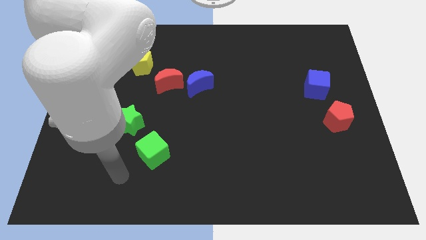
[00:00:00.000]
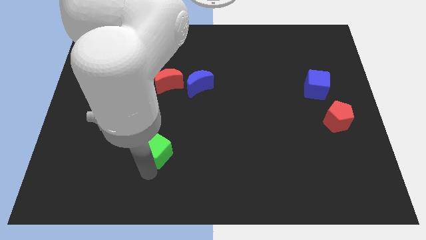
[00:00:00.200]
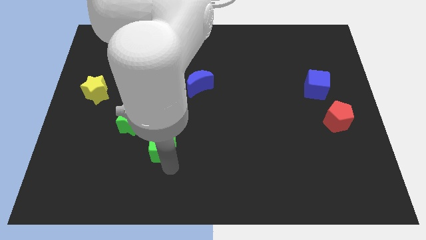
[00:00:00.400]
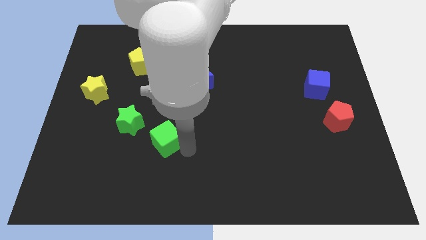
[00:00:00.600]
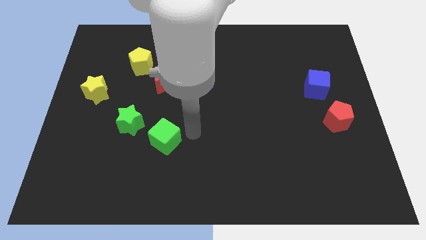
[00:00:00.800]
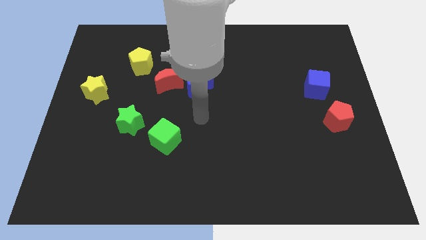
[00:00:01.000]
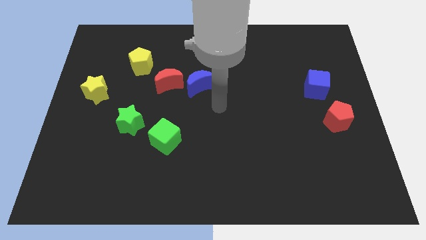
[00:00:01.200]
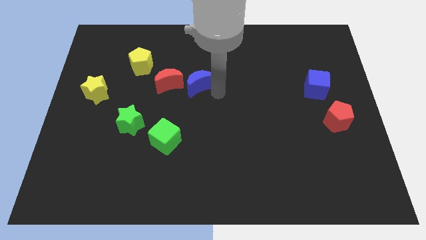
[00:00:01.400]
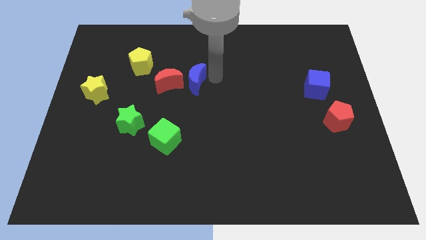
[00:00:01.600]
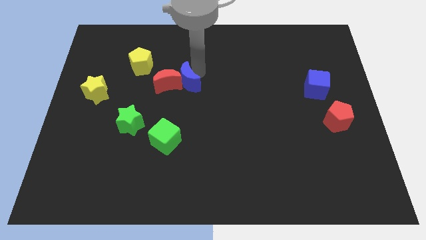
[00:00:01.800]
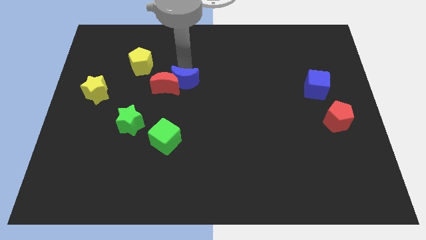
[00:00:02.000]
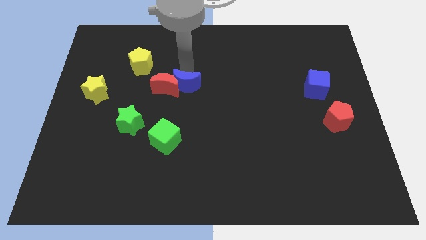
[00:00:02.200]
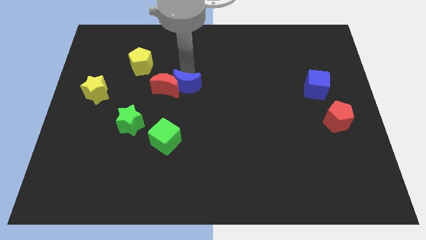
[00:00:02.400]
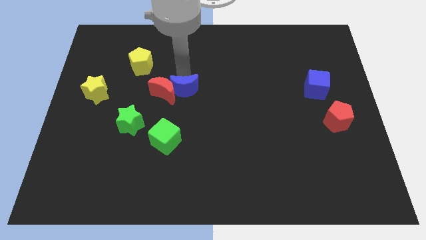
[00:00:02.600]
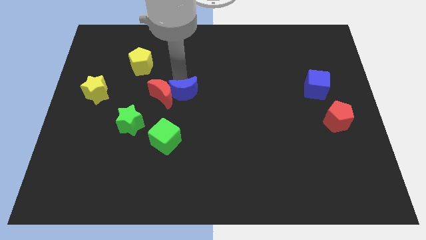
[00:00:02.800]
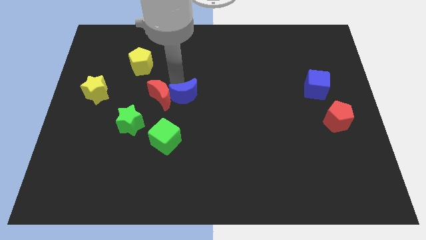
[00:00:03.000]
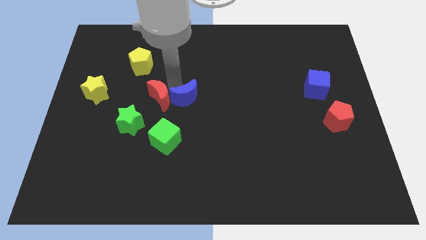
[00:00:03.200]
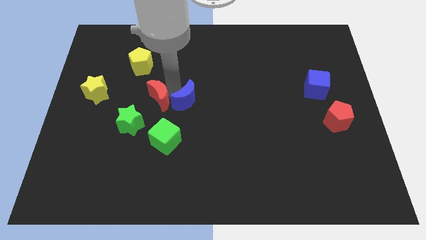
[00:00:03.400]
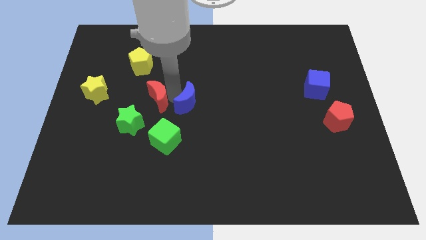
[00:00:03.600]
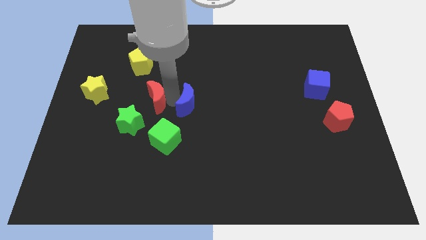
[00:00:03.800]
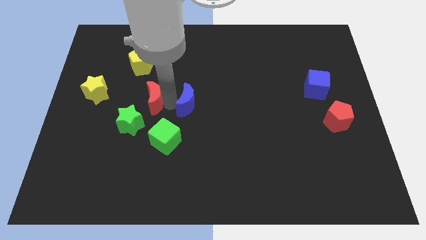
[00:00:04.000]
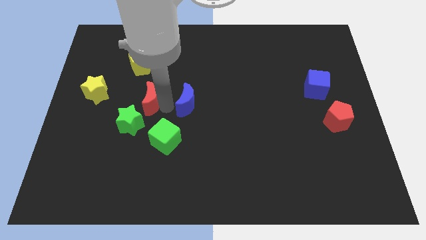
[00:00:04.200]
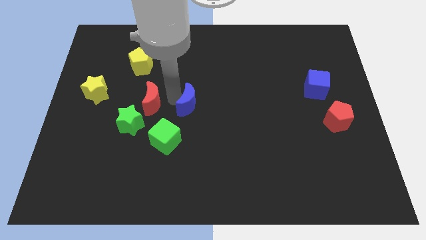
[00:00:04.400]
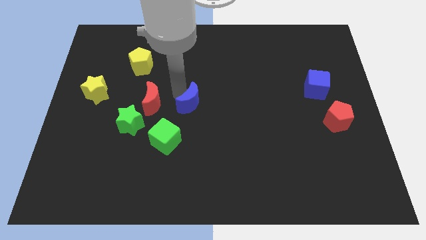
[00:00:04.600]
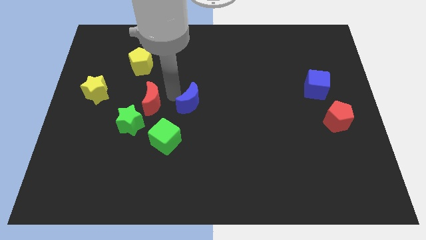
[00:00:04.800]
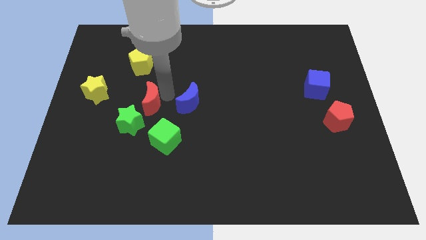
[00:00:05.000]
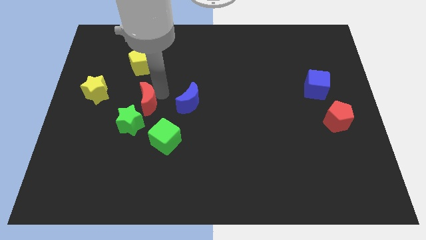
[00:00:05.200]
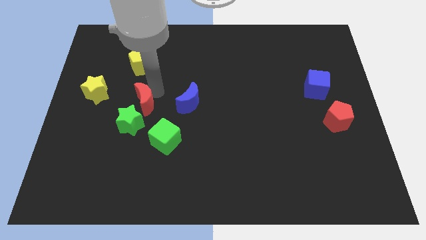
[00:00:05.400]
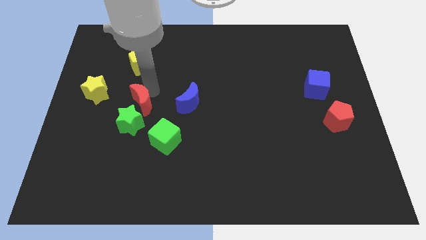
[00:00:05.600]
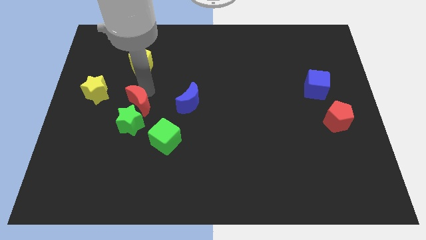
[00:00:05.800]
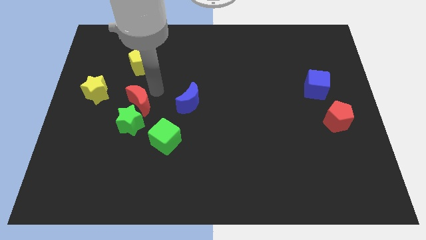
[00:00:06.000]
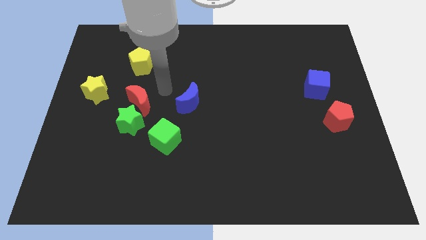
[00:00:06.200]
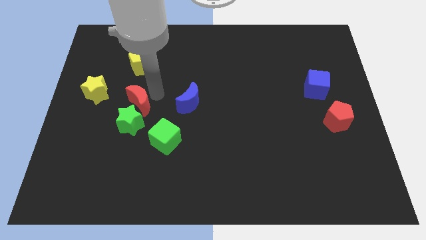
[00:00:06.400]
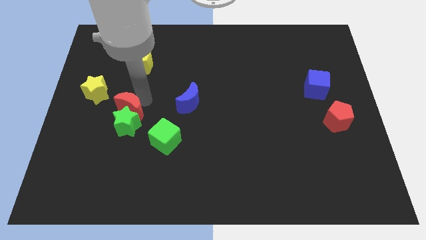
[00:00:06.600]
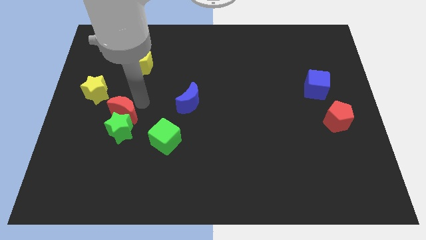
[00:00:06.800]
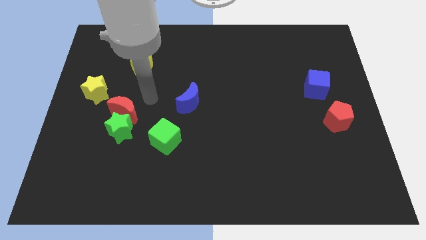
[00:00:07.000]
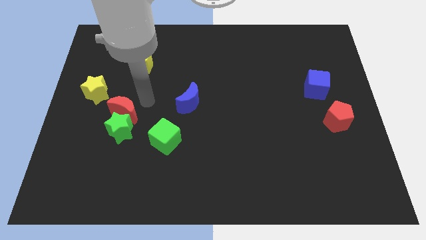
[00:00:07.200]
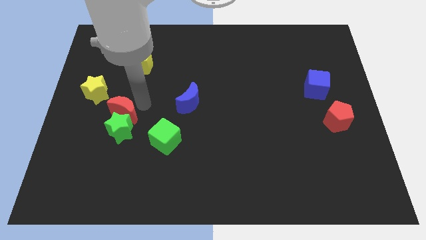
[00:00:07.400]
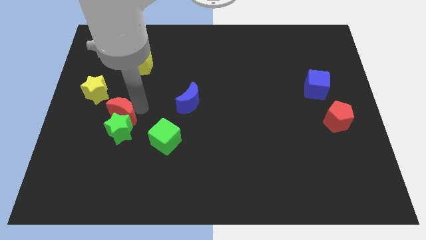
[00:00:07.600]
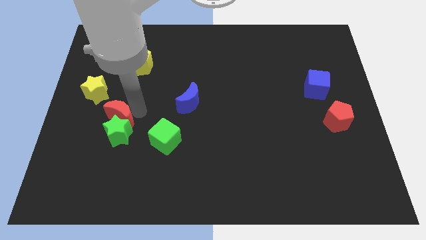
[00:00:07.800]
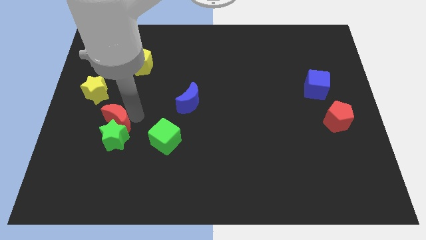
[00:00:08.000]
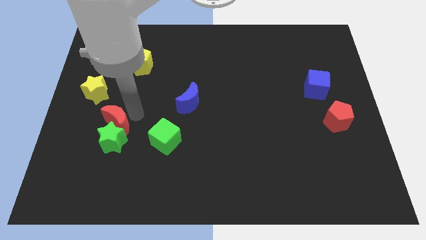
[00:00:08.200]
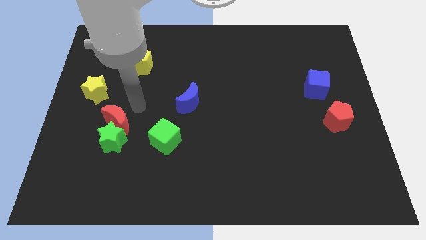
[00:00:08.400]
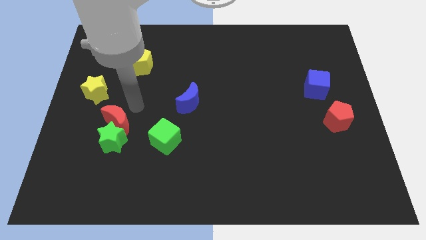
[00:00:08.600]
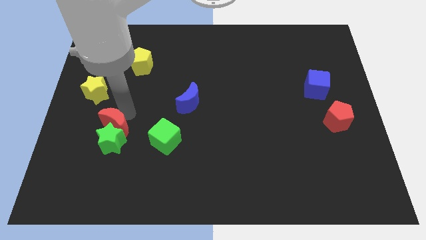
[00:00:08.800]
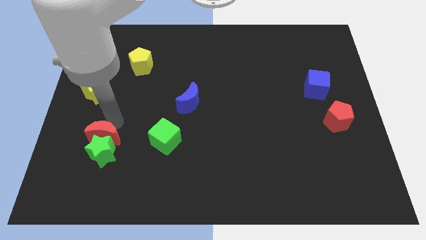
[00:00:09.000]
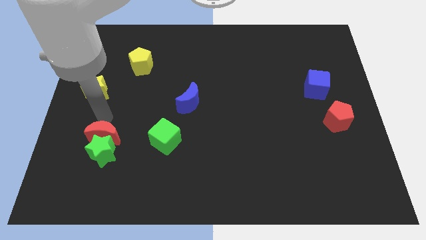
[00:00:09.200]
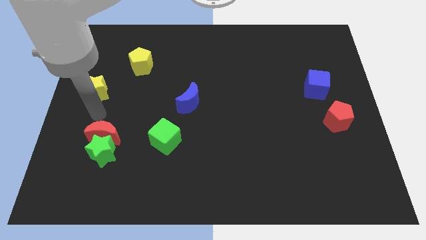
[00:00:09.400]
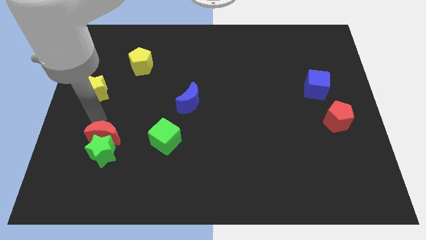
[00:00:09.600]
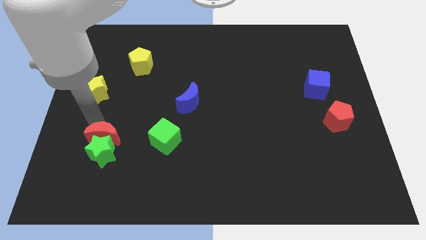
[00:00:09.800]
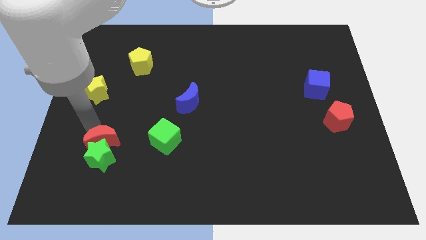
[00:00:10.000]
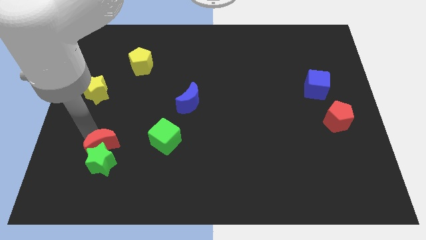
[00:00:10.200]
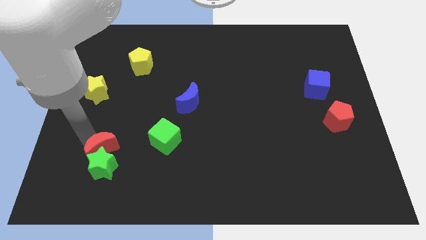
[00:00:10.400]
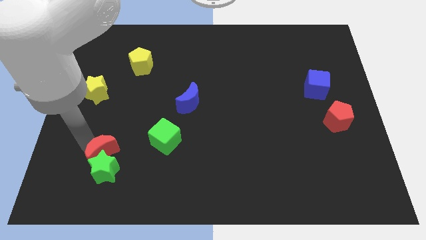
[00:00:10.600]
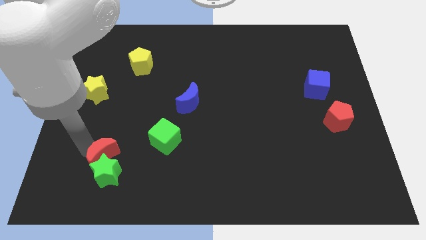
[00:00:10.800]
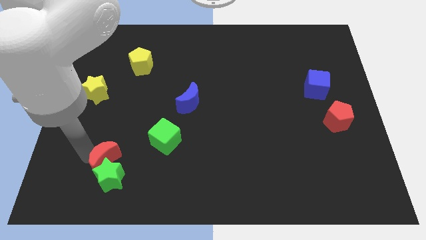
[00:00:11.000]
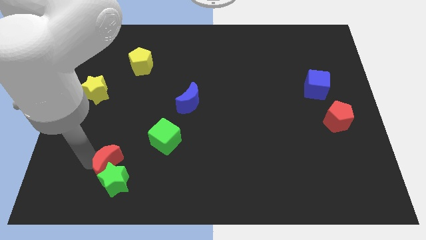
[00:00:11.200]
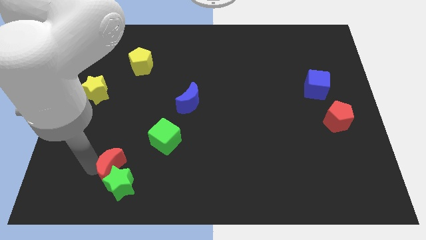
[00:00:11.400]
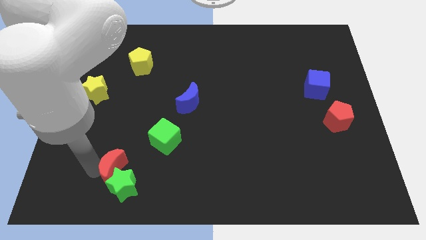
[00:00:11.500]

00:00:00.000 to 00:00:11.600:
push the red moon diagonally down and to the left of the green cube

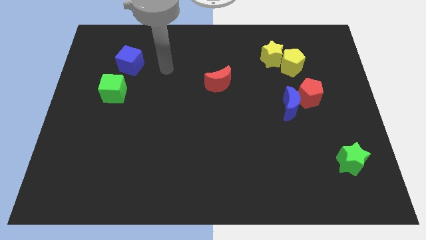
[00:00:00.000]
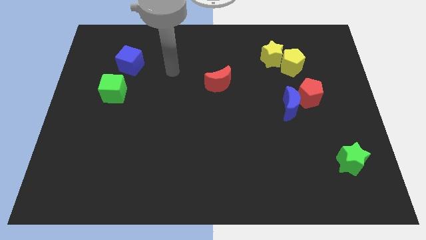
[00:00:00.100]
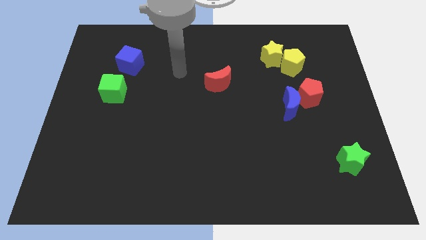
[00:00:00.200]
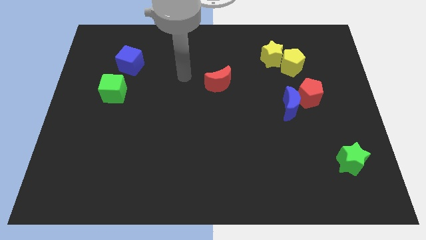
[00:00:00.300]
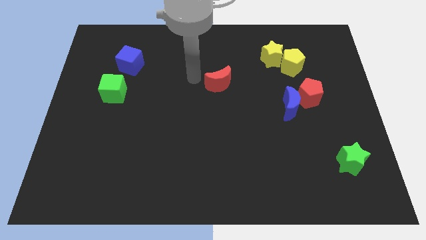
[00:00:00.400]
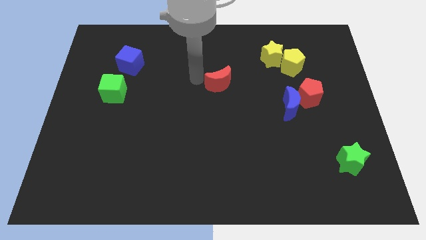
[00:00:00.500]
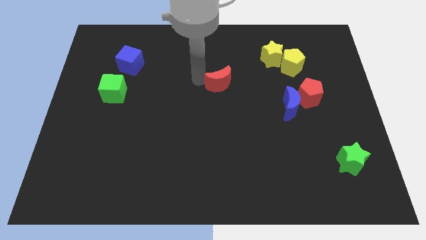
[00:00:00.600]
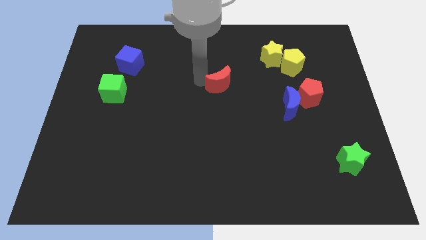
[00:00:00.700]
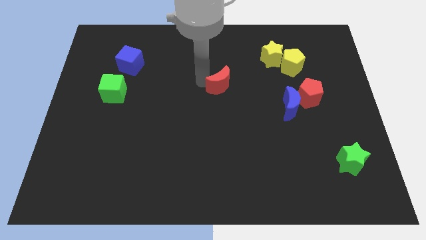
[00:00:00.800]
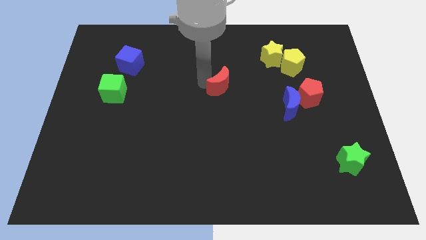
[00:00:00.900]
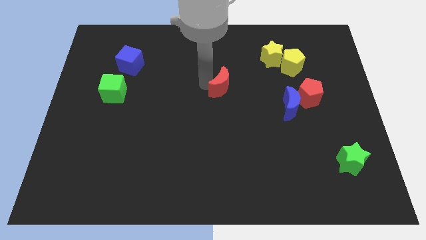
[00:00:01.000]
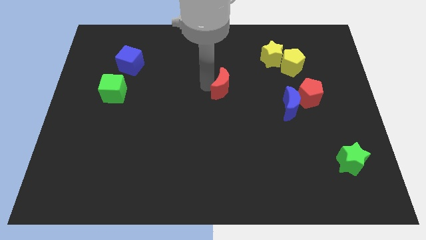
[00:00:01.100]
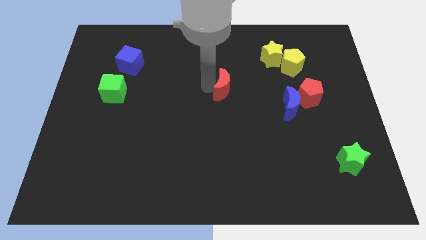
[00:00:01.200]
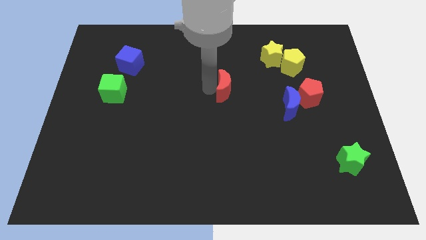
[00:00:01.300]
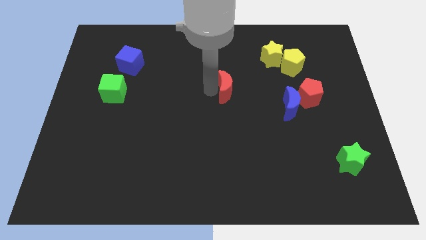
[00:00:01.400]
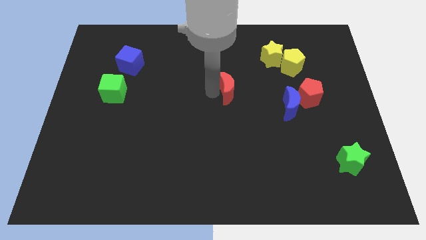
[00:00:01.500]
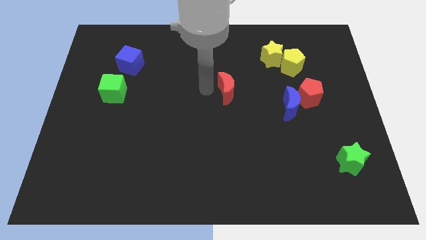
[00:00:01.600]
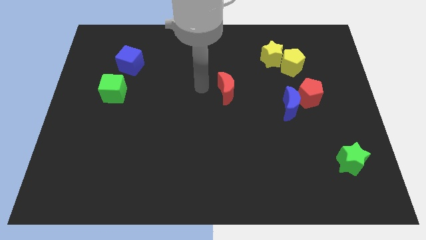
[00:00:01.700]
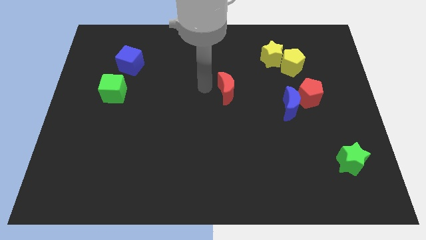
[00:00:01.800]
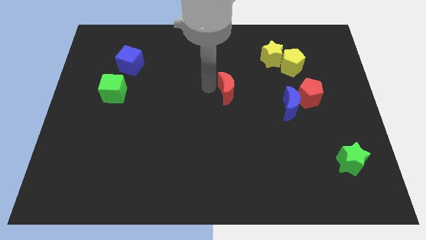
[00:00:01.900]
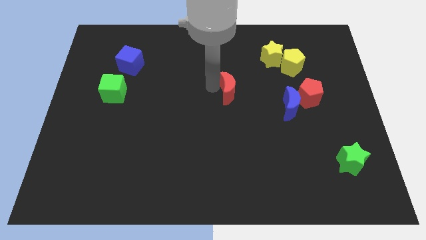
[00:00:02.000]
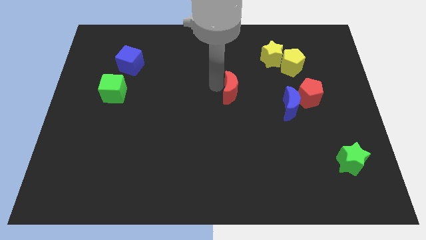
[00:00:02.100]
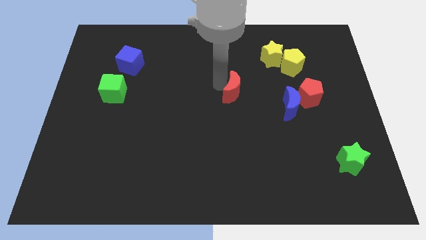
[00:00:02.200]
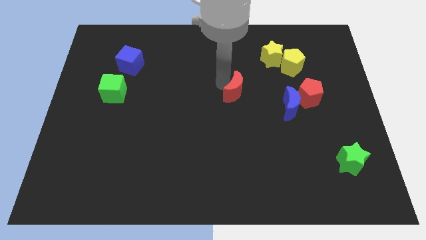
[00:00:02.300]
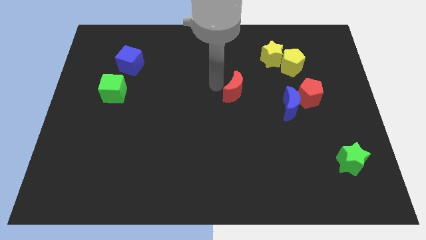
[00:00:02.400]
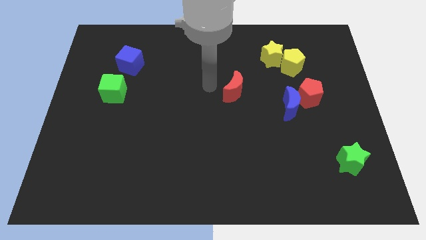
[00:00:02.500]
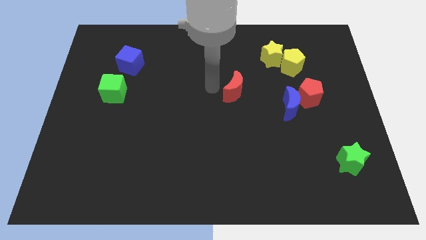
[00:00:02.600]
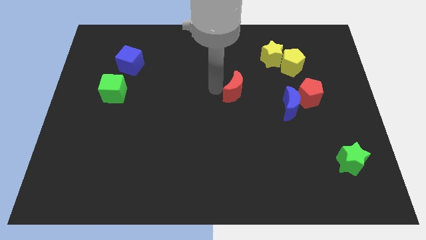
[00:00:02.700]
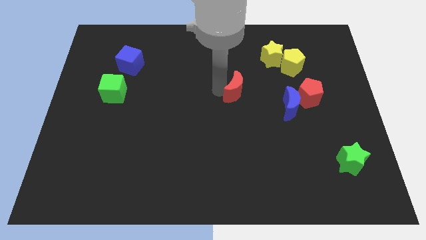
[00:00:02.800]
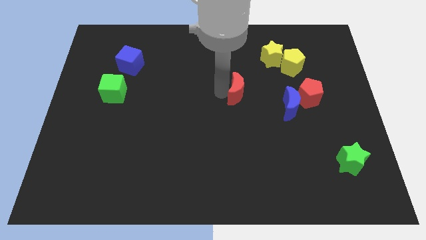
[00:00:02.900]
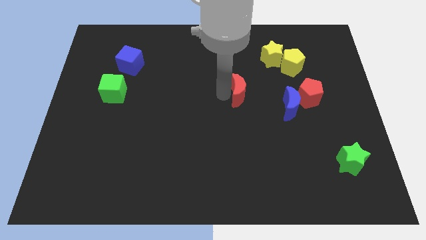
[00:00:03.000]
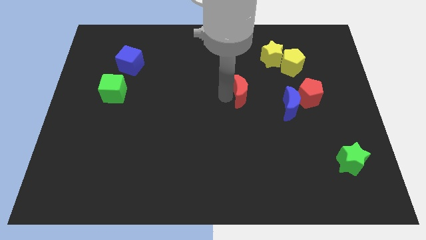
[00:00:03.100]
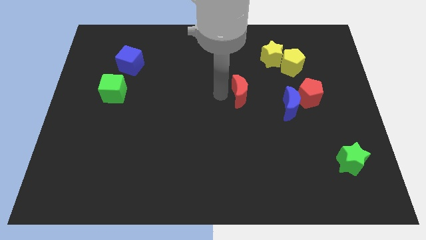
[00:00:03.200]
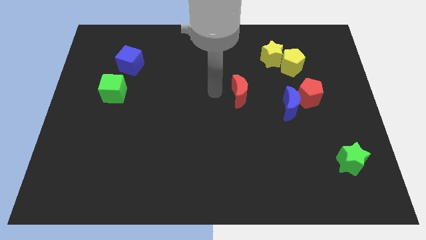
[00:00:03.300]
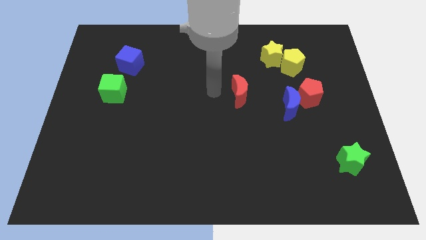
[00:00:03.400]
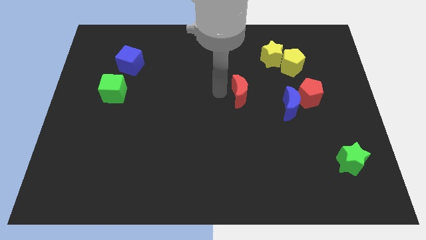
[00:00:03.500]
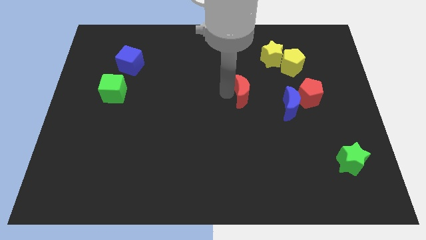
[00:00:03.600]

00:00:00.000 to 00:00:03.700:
put the red moon left of the red pentagon
